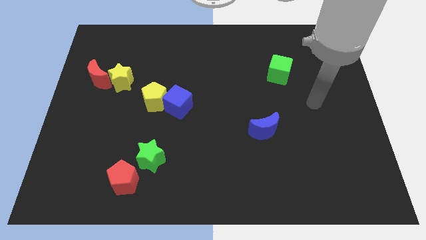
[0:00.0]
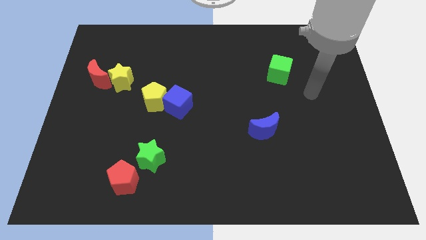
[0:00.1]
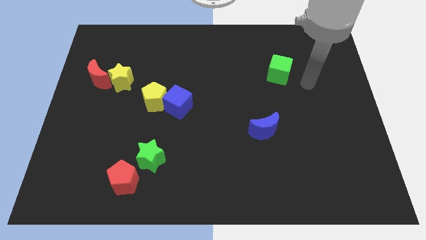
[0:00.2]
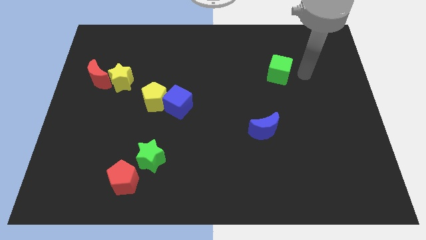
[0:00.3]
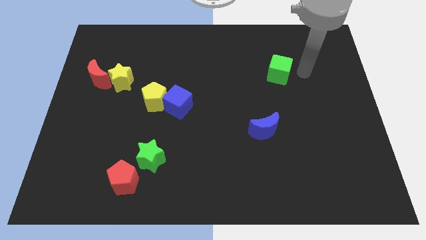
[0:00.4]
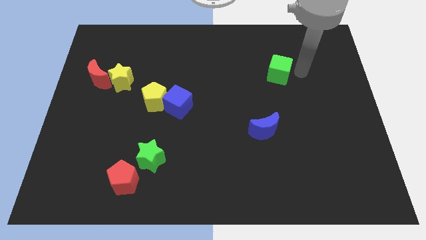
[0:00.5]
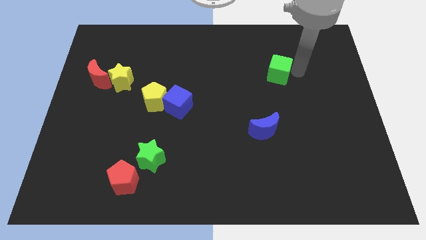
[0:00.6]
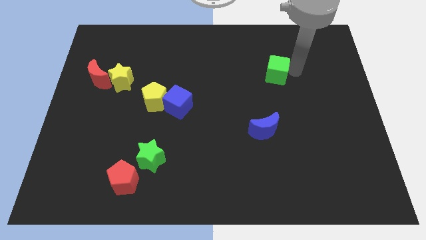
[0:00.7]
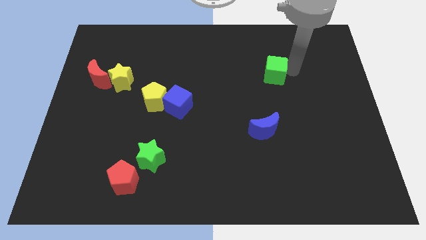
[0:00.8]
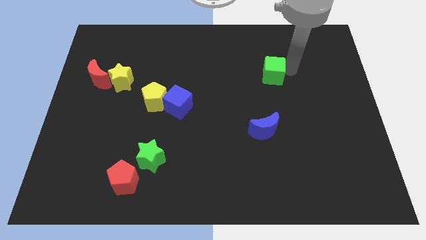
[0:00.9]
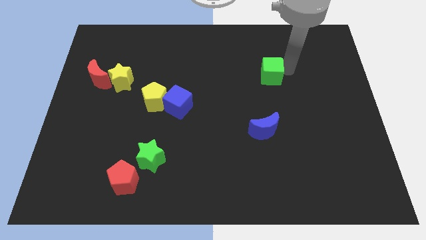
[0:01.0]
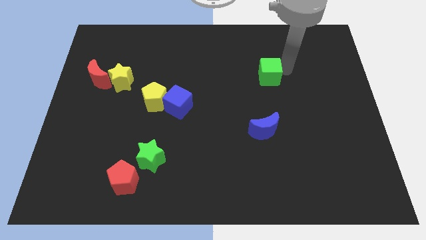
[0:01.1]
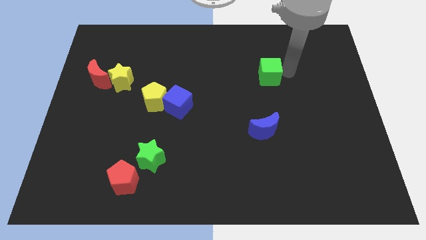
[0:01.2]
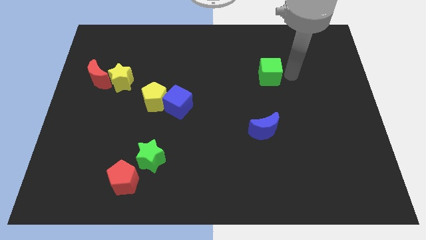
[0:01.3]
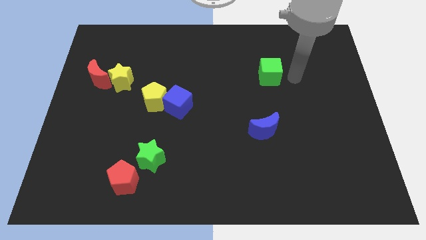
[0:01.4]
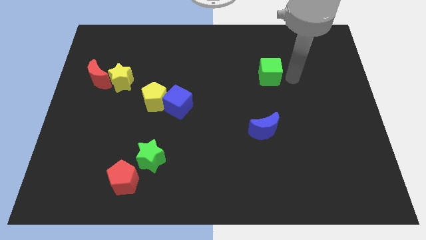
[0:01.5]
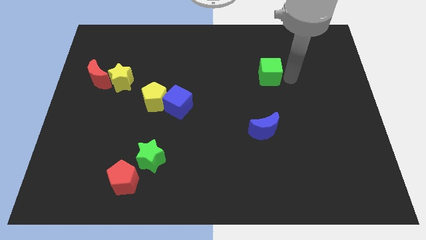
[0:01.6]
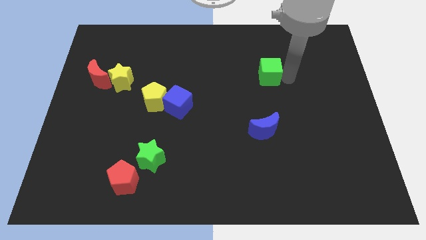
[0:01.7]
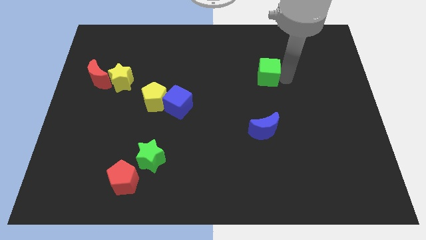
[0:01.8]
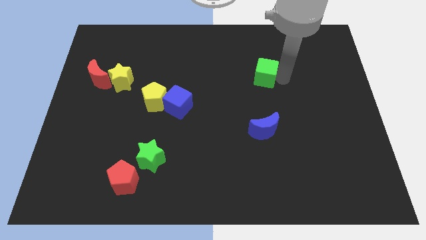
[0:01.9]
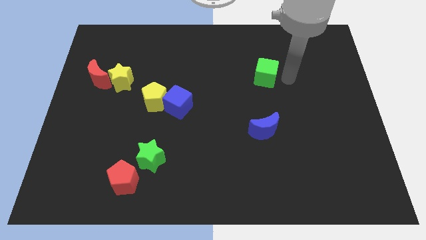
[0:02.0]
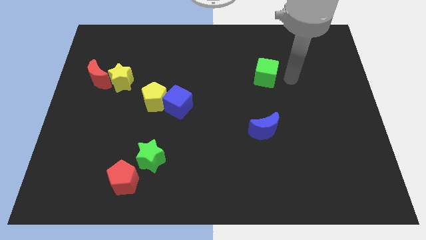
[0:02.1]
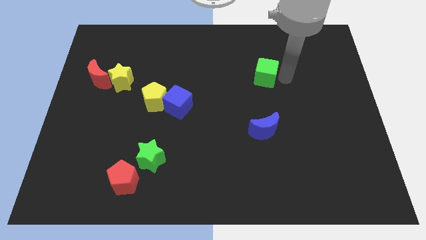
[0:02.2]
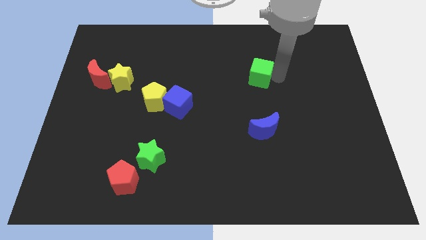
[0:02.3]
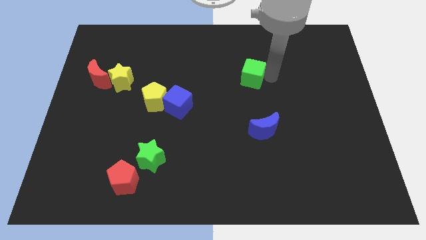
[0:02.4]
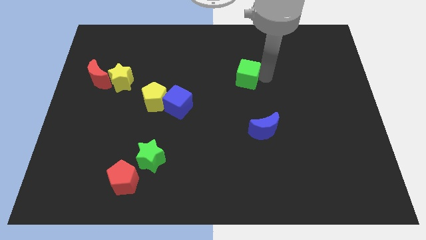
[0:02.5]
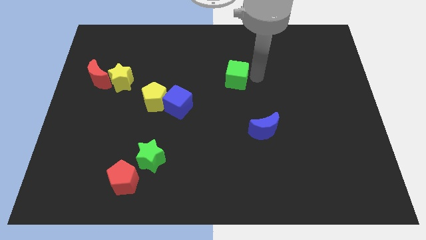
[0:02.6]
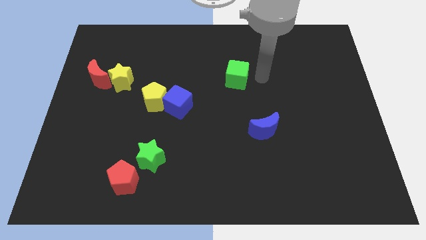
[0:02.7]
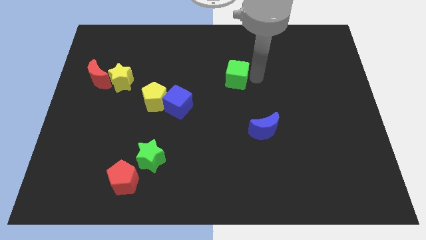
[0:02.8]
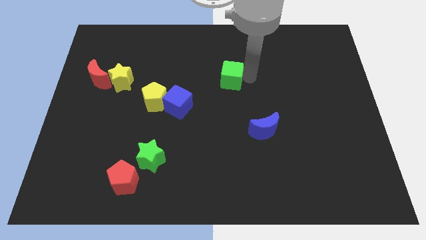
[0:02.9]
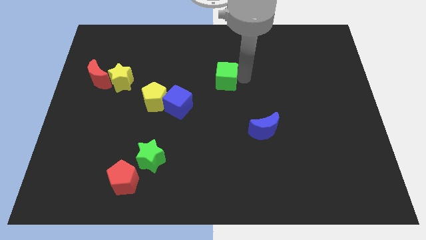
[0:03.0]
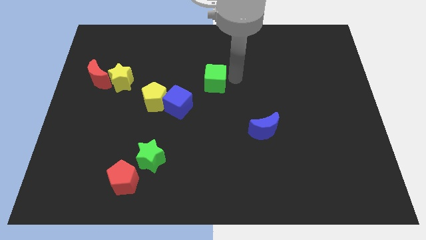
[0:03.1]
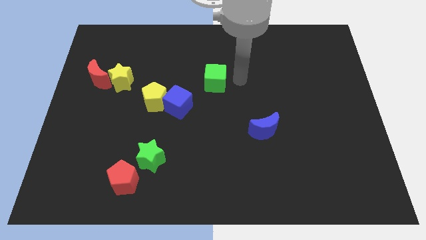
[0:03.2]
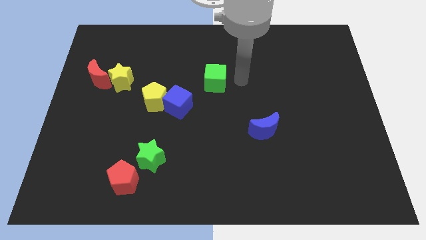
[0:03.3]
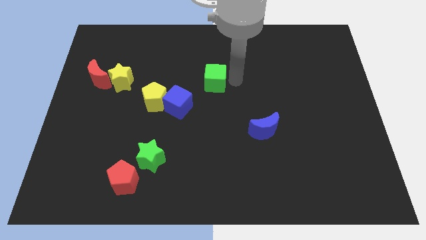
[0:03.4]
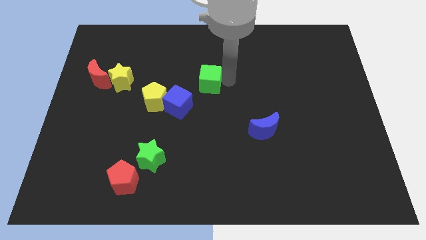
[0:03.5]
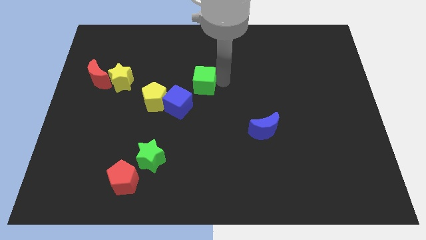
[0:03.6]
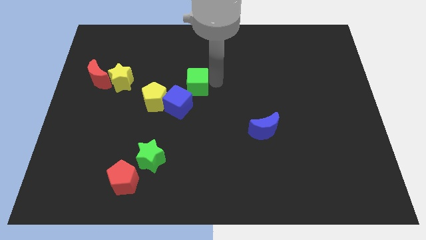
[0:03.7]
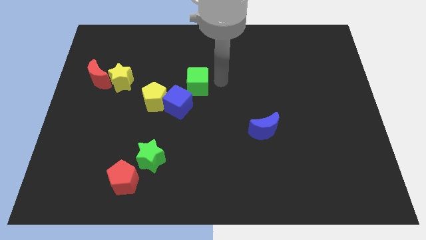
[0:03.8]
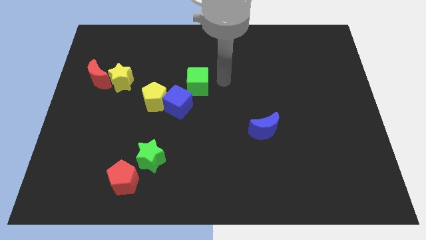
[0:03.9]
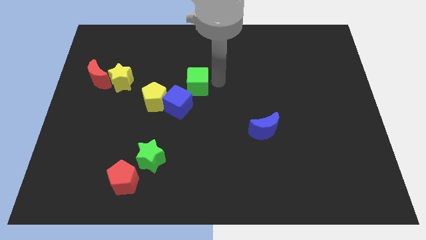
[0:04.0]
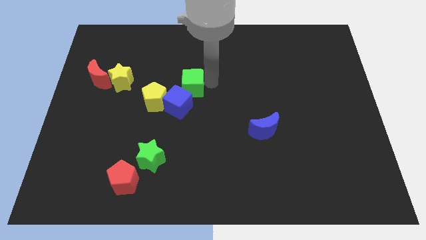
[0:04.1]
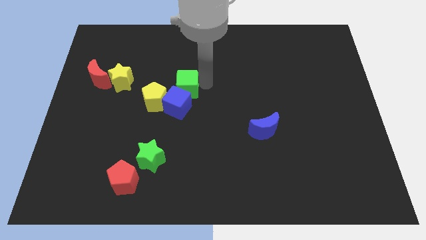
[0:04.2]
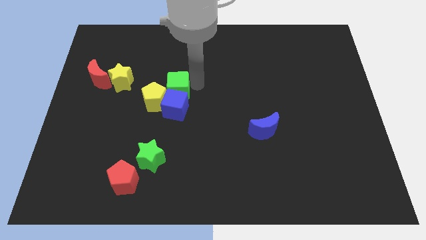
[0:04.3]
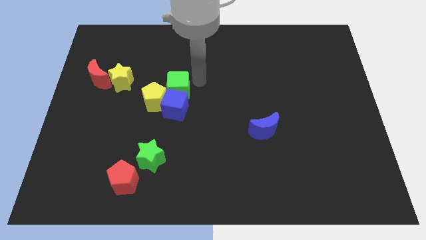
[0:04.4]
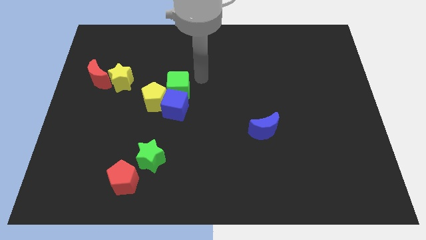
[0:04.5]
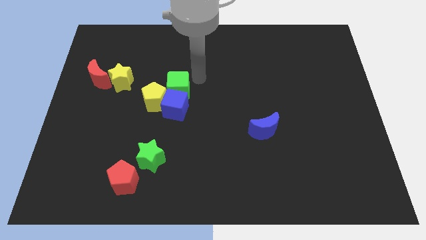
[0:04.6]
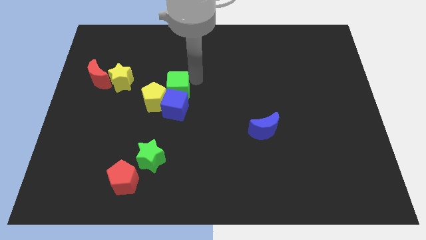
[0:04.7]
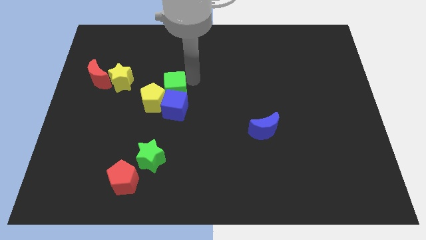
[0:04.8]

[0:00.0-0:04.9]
move the green cube to the yellow pentagon

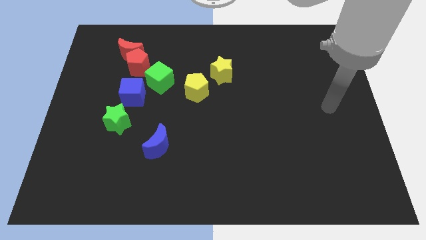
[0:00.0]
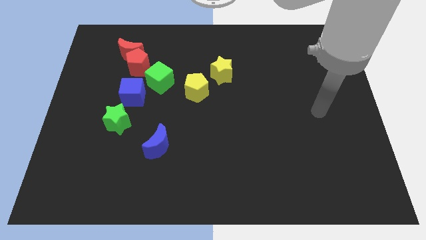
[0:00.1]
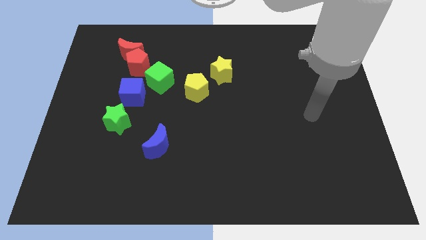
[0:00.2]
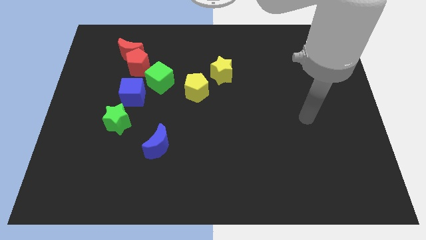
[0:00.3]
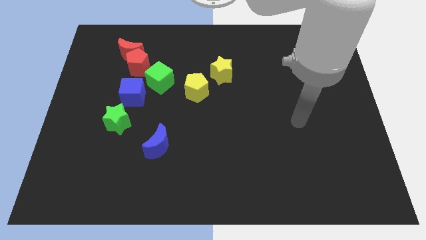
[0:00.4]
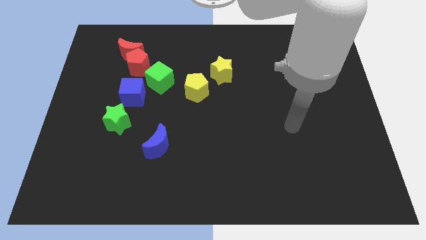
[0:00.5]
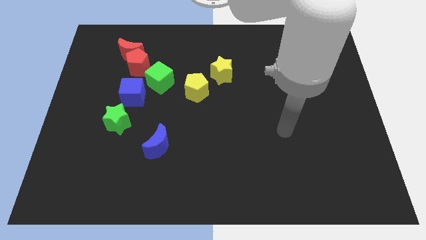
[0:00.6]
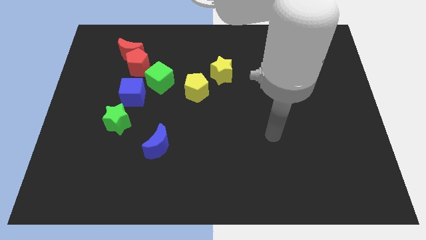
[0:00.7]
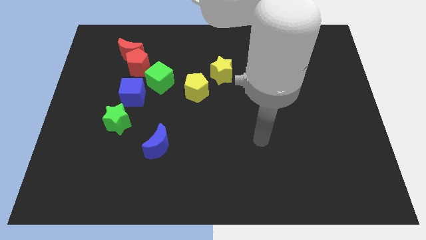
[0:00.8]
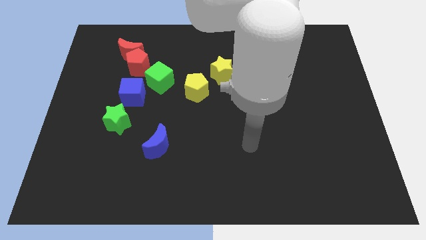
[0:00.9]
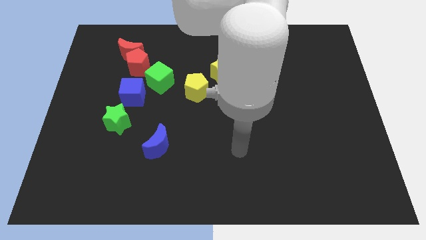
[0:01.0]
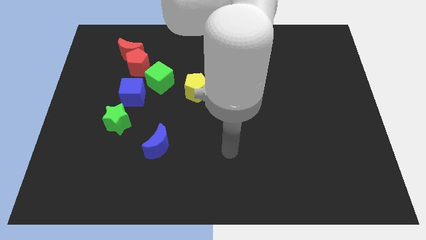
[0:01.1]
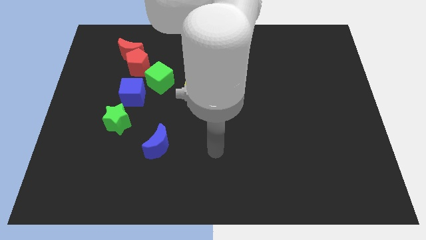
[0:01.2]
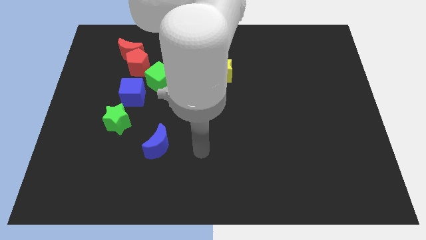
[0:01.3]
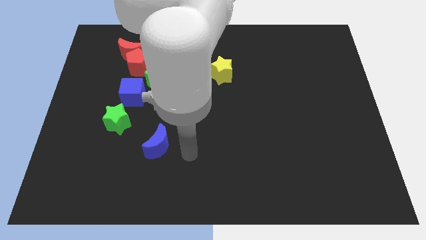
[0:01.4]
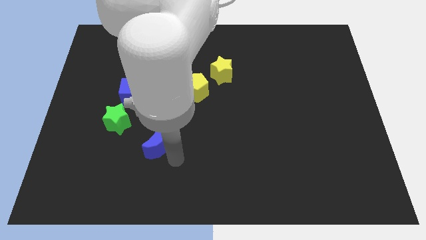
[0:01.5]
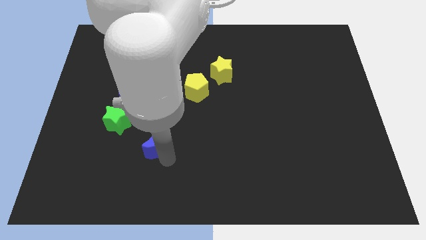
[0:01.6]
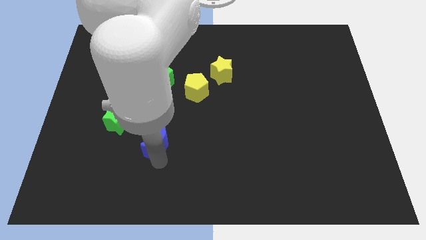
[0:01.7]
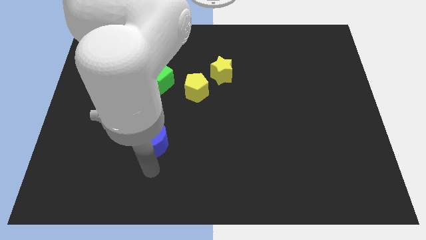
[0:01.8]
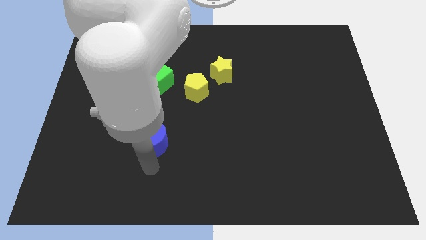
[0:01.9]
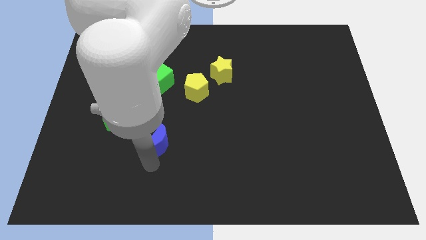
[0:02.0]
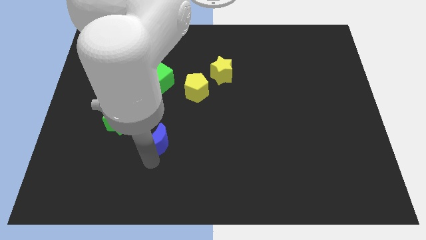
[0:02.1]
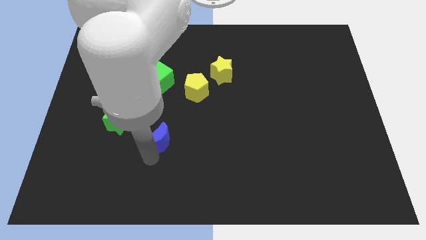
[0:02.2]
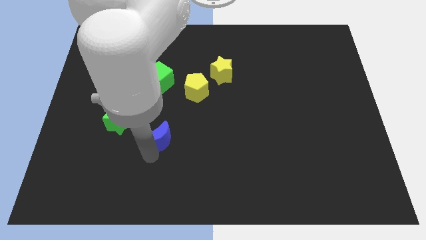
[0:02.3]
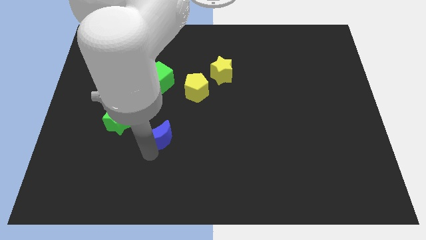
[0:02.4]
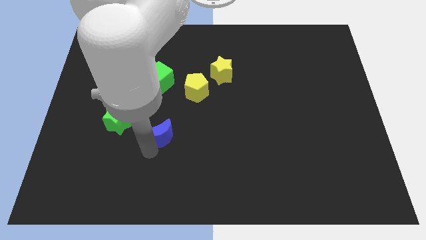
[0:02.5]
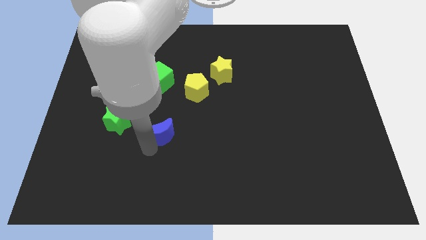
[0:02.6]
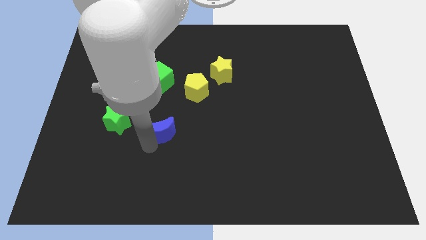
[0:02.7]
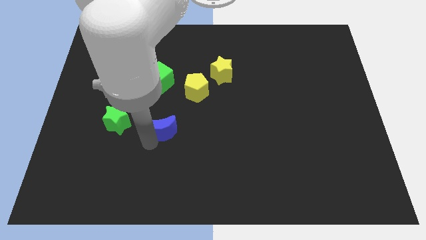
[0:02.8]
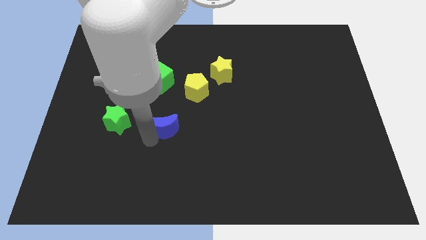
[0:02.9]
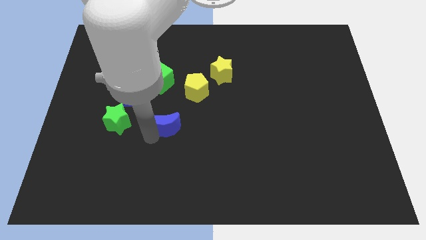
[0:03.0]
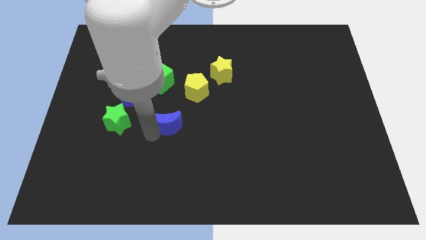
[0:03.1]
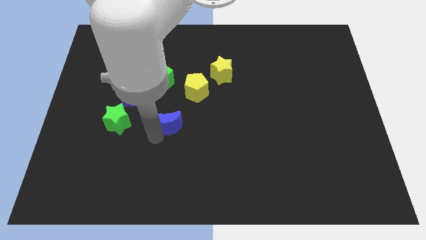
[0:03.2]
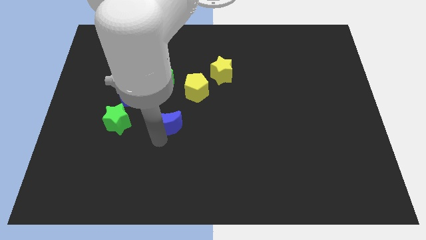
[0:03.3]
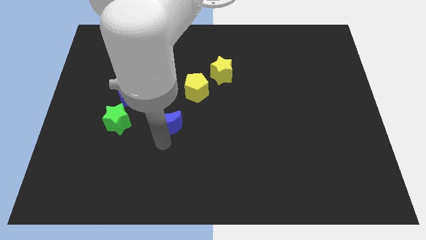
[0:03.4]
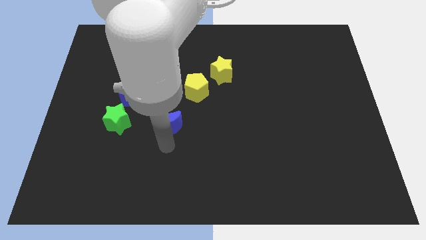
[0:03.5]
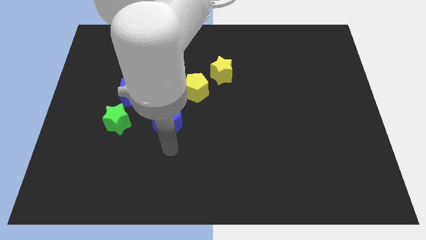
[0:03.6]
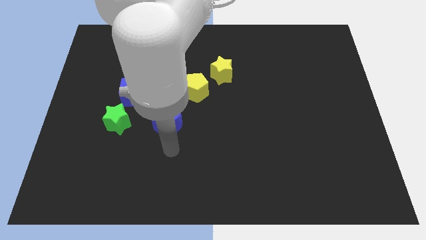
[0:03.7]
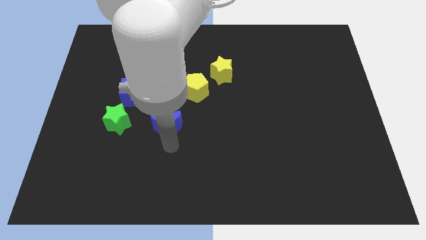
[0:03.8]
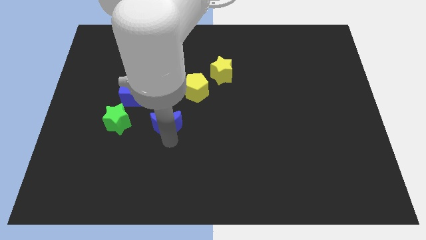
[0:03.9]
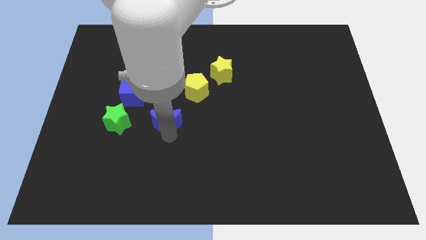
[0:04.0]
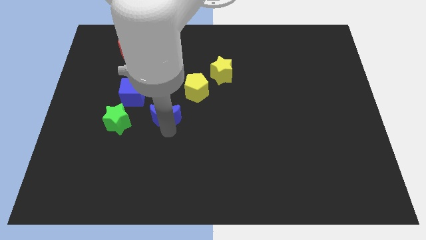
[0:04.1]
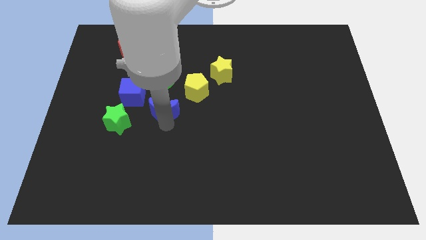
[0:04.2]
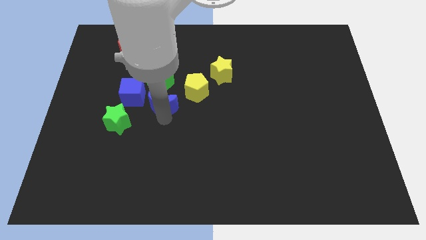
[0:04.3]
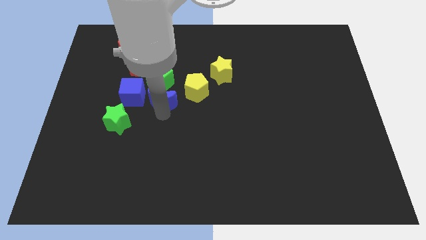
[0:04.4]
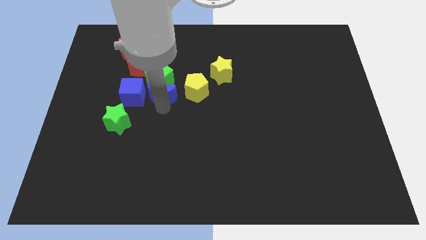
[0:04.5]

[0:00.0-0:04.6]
put the blue moon close to the green cube
